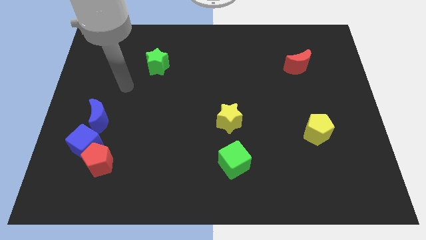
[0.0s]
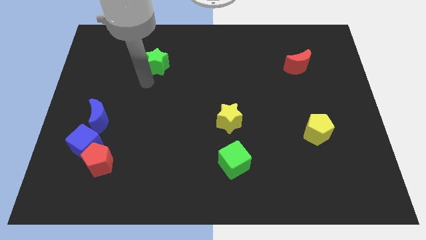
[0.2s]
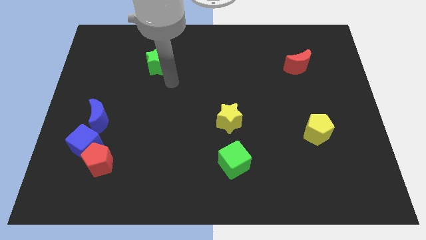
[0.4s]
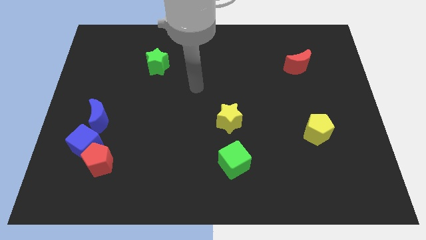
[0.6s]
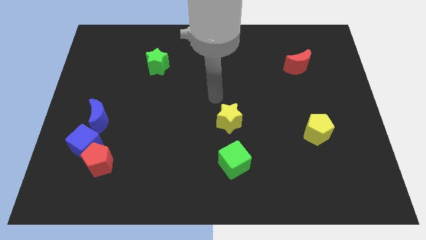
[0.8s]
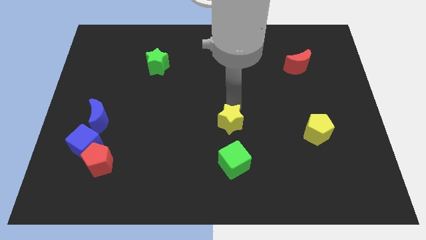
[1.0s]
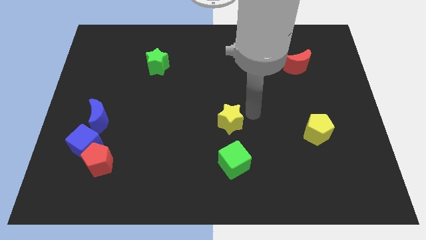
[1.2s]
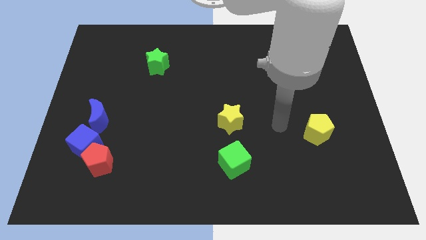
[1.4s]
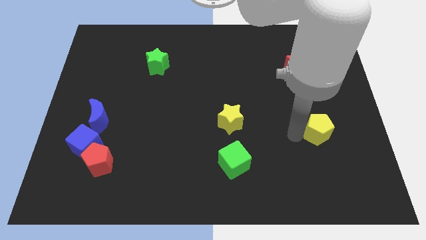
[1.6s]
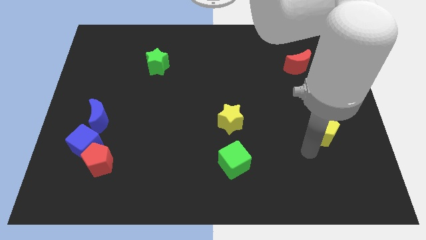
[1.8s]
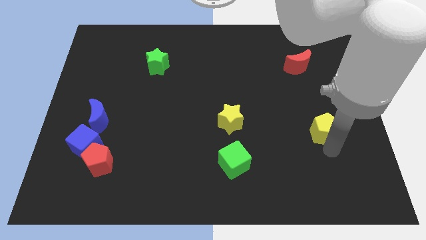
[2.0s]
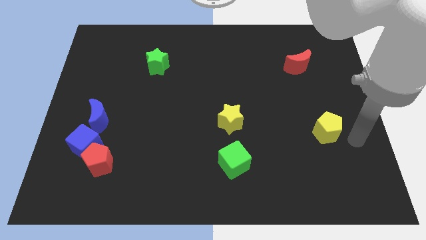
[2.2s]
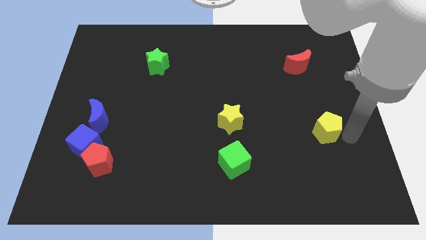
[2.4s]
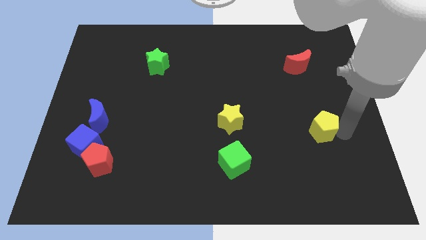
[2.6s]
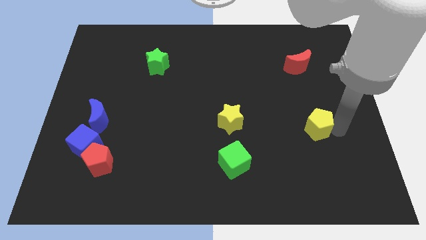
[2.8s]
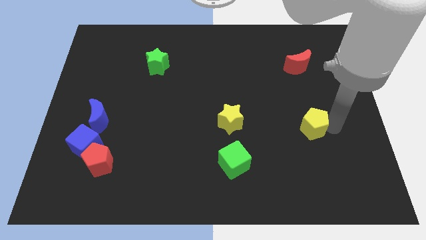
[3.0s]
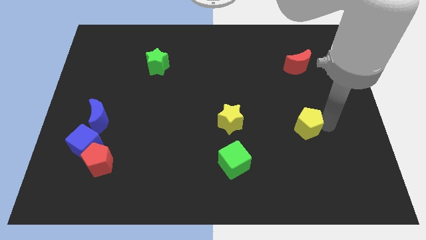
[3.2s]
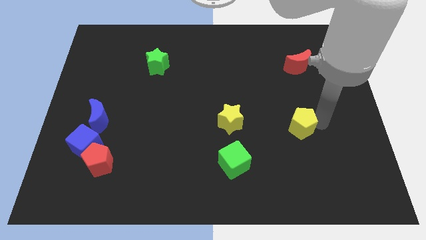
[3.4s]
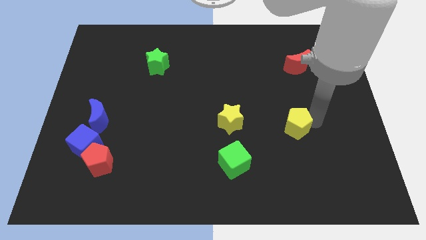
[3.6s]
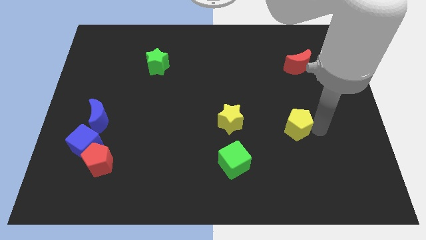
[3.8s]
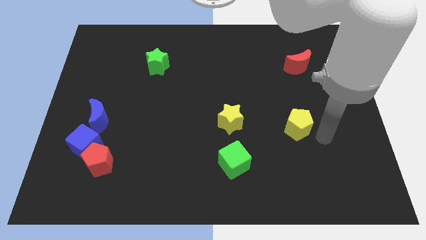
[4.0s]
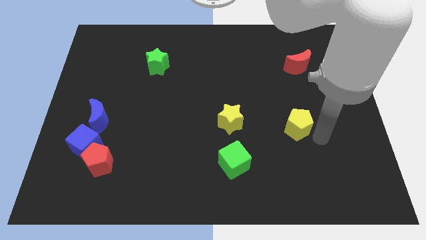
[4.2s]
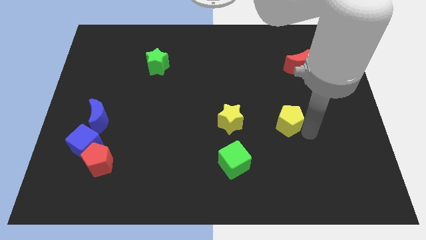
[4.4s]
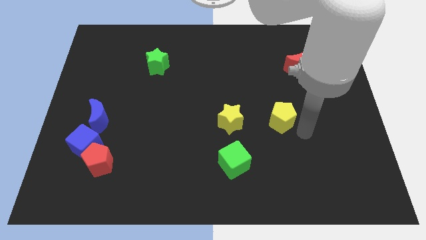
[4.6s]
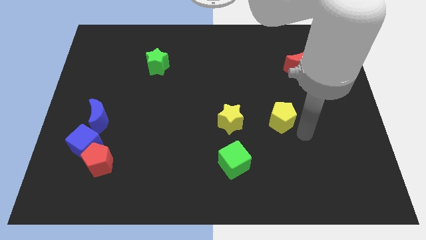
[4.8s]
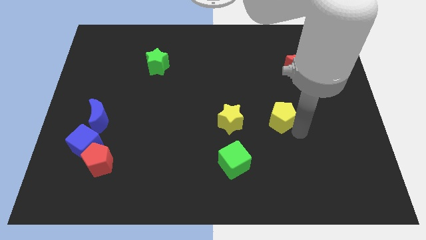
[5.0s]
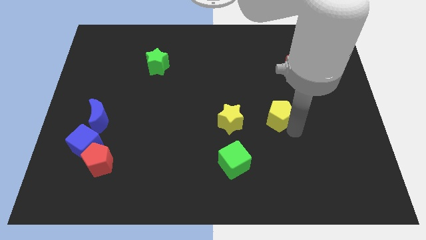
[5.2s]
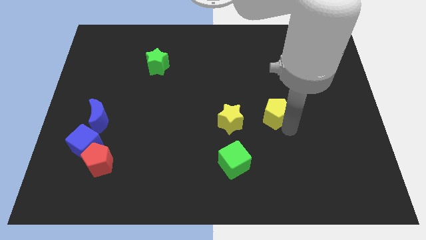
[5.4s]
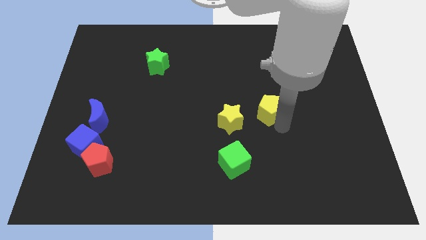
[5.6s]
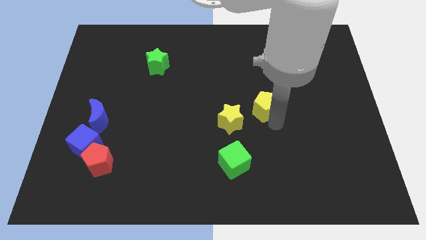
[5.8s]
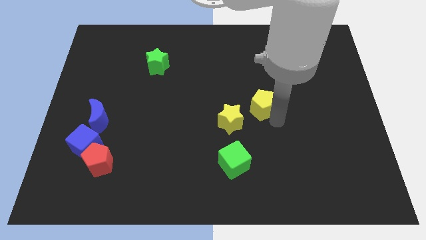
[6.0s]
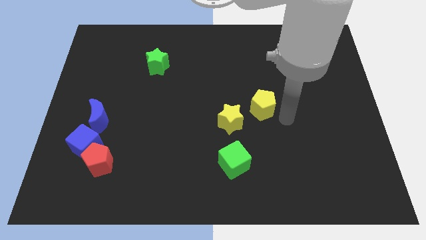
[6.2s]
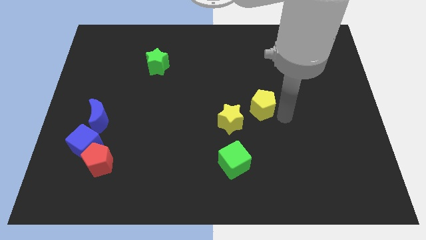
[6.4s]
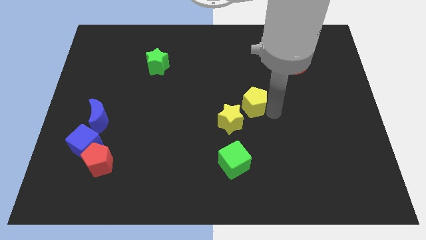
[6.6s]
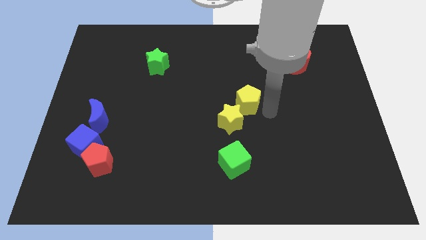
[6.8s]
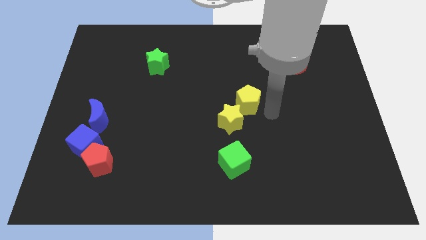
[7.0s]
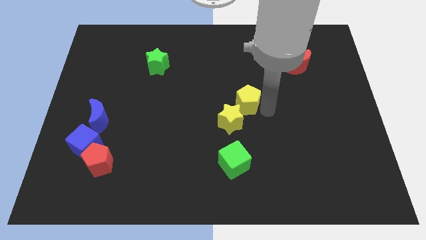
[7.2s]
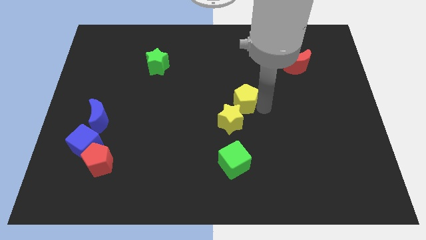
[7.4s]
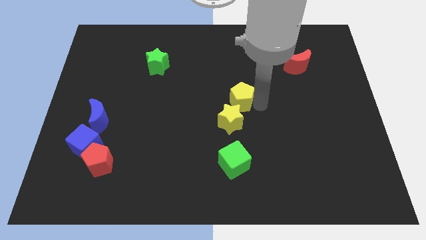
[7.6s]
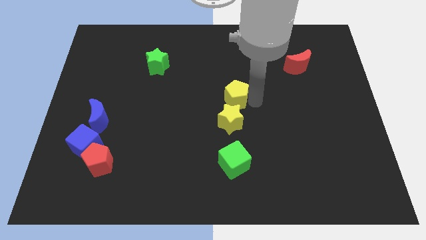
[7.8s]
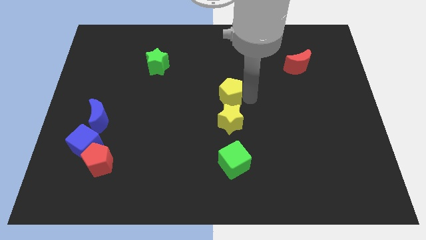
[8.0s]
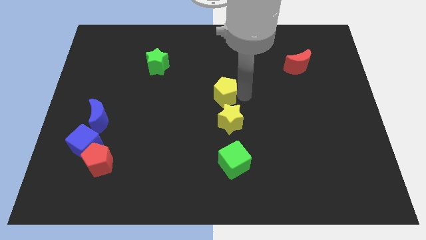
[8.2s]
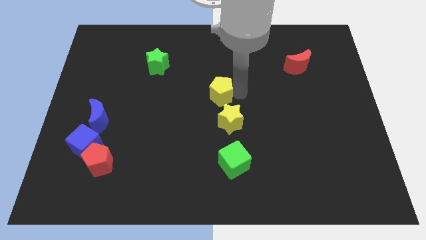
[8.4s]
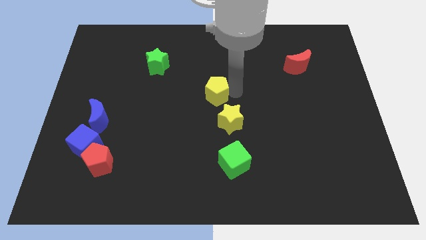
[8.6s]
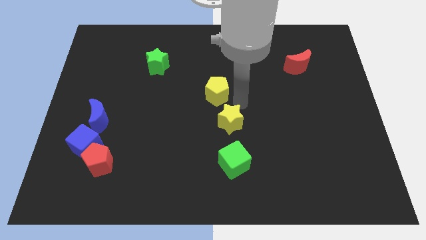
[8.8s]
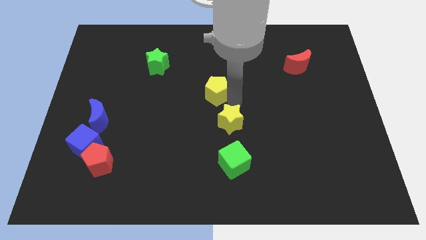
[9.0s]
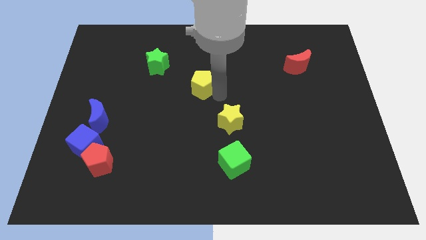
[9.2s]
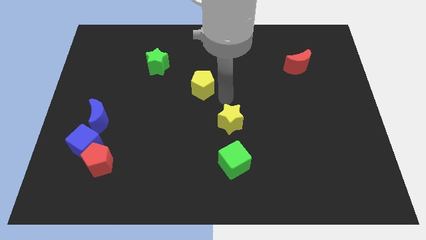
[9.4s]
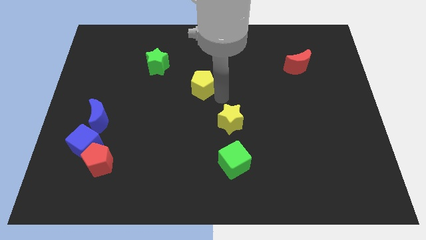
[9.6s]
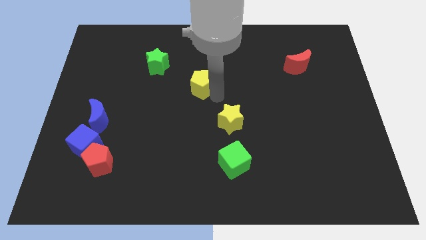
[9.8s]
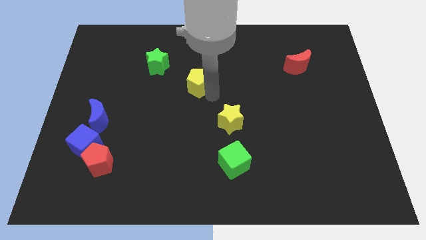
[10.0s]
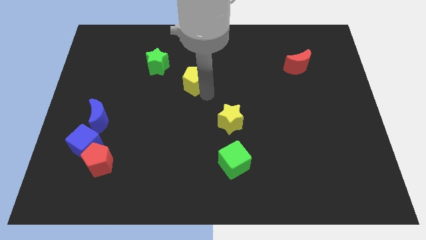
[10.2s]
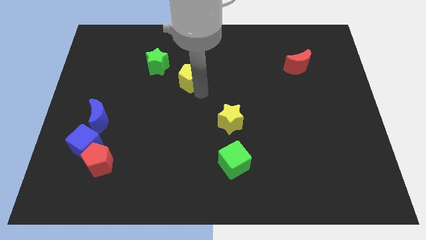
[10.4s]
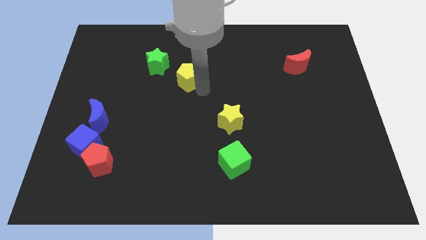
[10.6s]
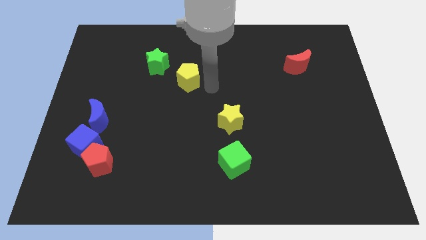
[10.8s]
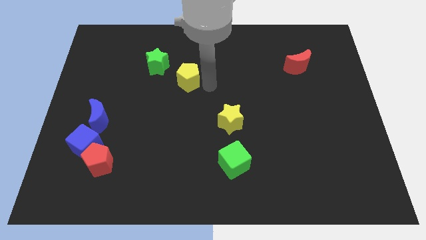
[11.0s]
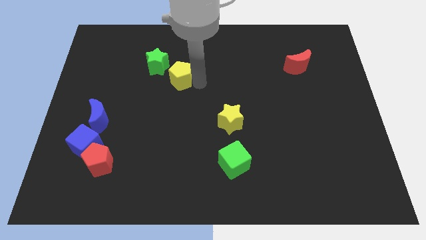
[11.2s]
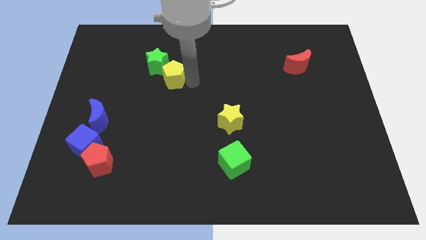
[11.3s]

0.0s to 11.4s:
put the yellow pentagon towards the green star

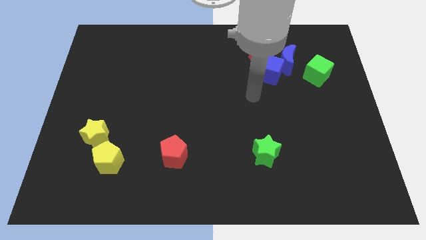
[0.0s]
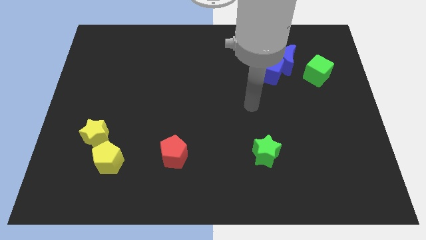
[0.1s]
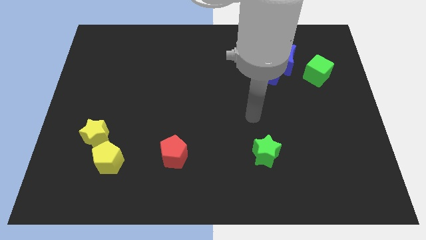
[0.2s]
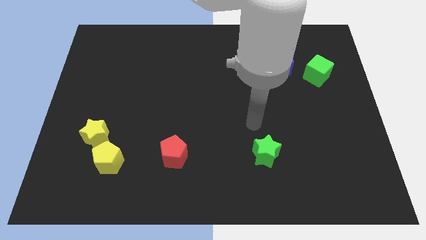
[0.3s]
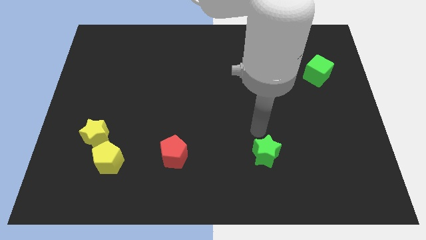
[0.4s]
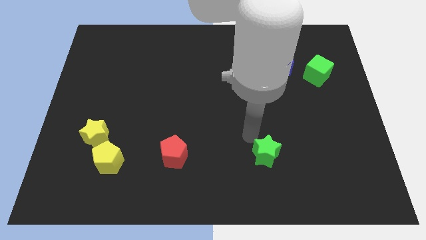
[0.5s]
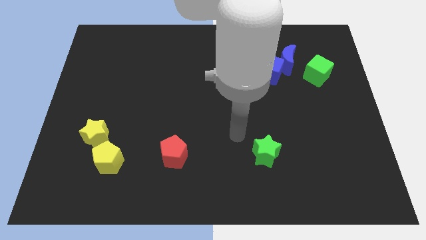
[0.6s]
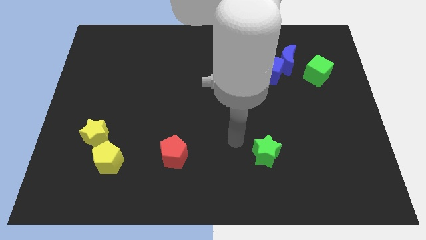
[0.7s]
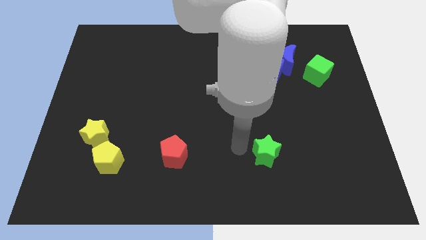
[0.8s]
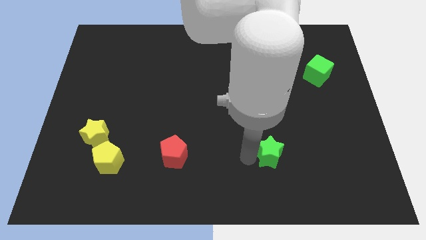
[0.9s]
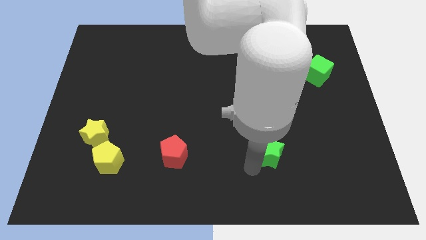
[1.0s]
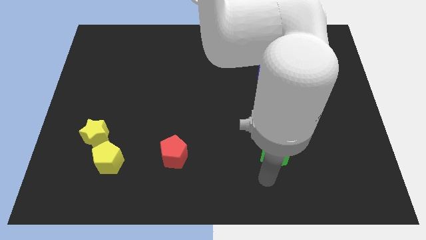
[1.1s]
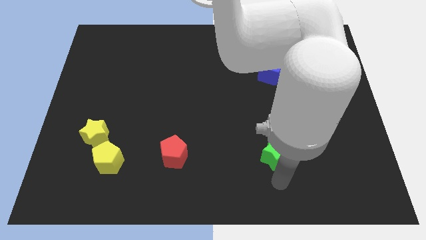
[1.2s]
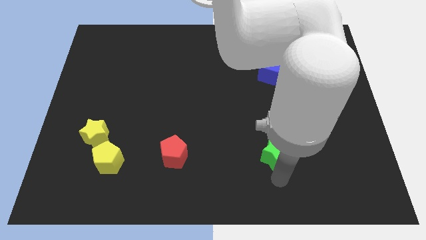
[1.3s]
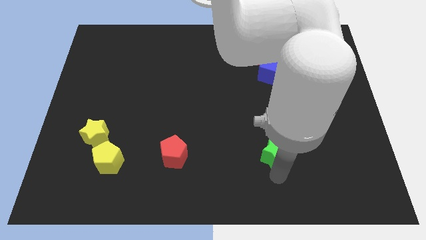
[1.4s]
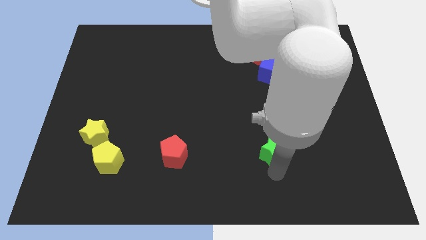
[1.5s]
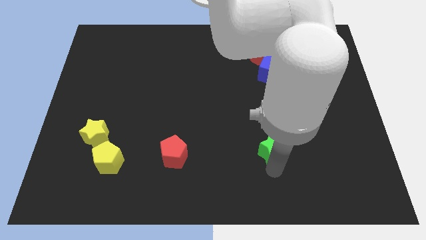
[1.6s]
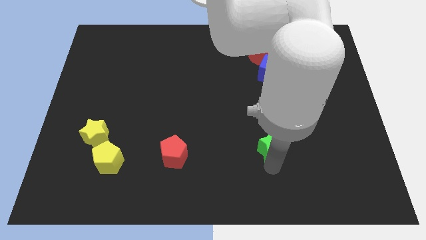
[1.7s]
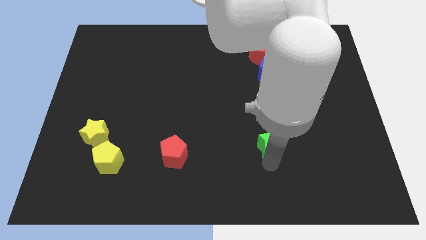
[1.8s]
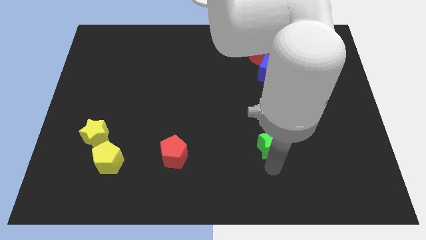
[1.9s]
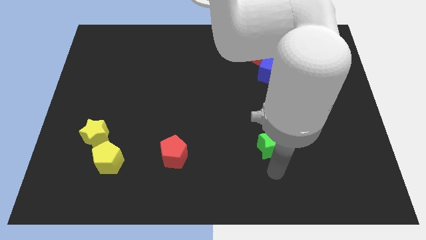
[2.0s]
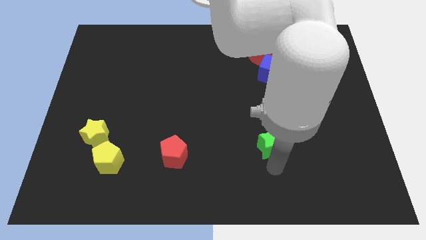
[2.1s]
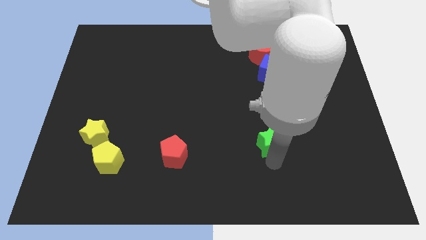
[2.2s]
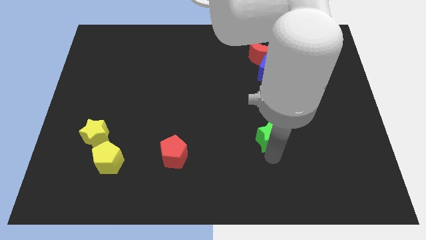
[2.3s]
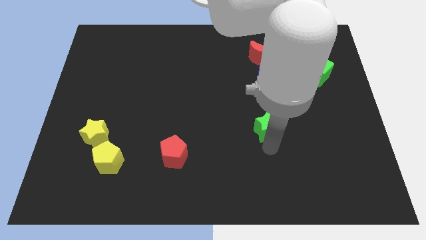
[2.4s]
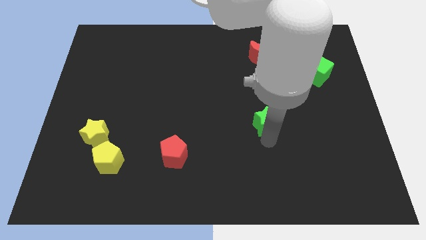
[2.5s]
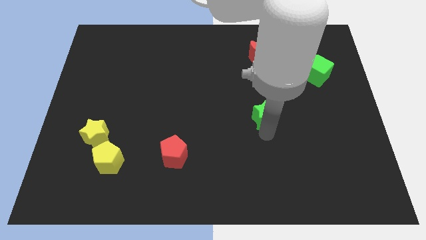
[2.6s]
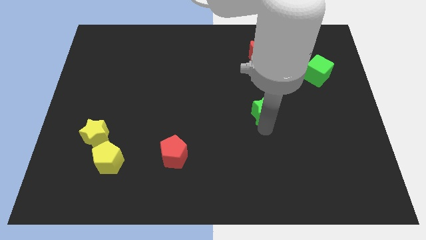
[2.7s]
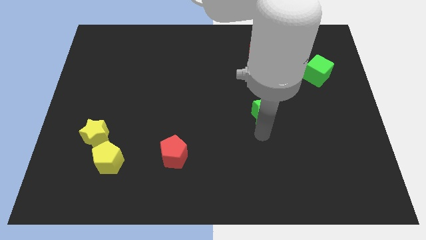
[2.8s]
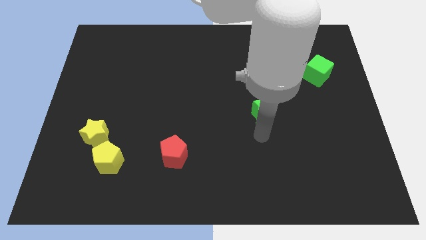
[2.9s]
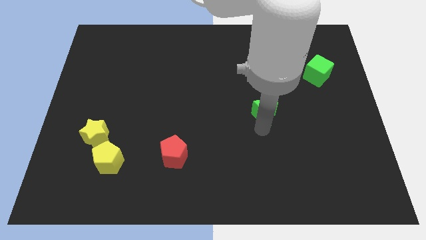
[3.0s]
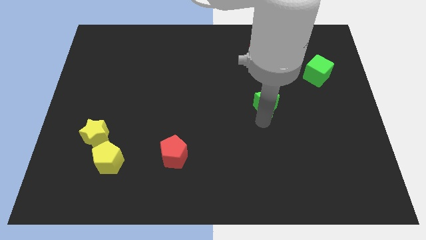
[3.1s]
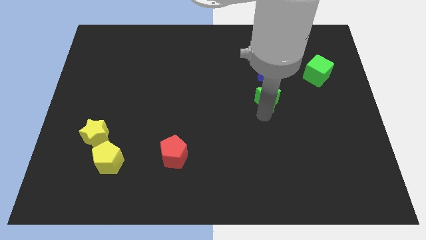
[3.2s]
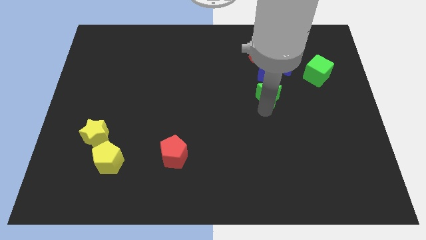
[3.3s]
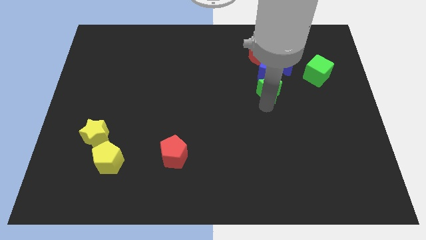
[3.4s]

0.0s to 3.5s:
push the green star next to the blue cube
